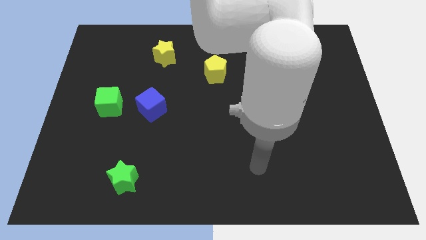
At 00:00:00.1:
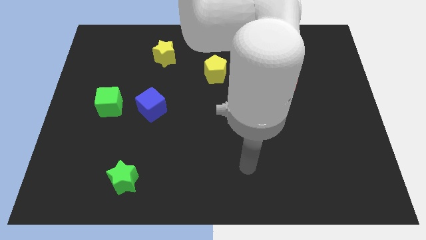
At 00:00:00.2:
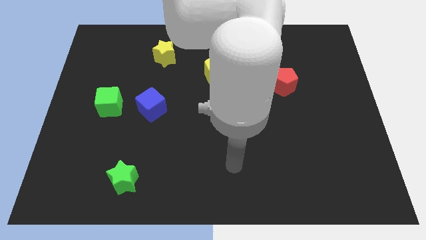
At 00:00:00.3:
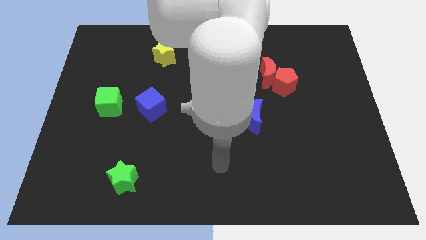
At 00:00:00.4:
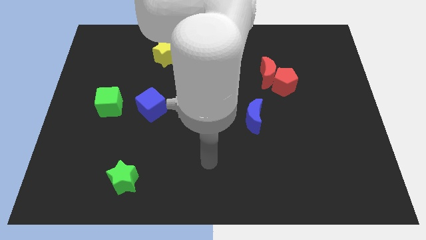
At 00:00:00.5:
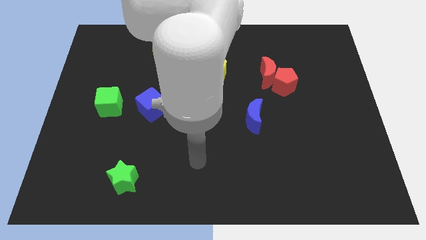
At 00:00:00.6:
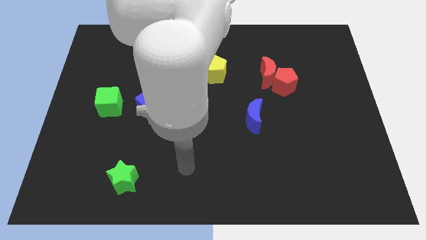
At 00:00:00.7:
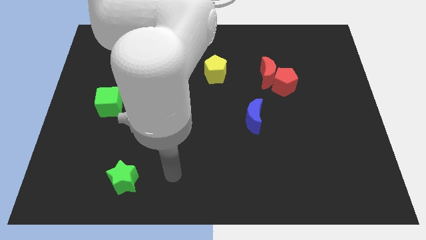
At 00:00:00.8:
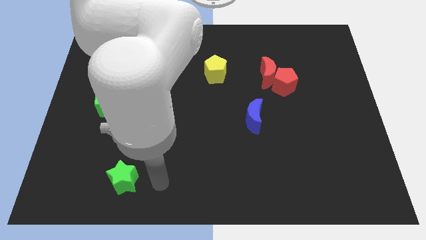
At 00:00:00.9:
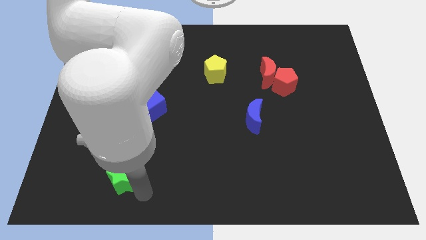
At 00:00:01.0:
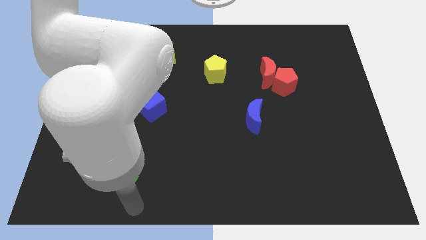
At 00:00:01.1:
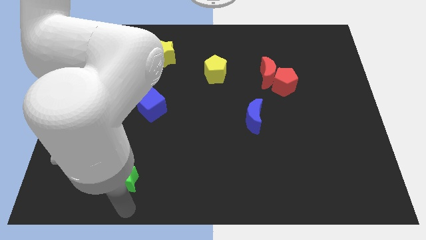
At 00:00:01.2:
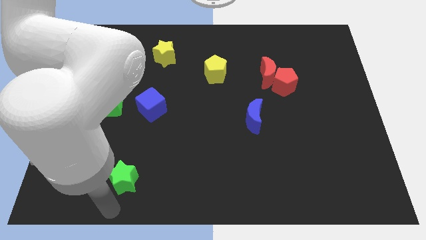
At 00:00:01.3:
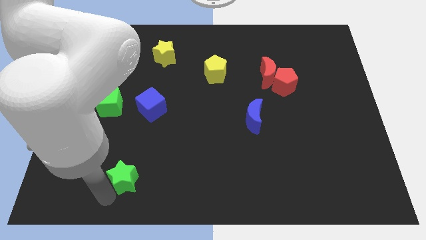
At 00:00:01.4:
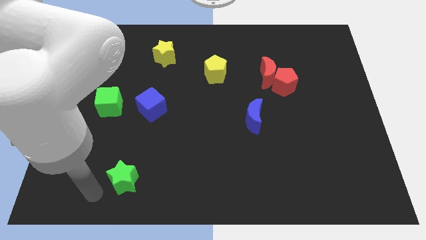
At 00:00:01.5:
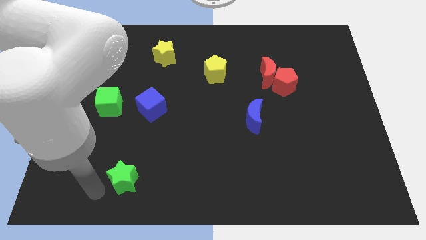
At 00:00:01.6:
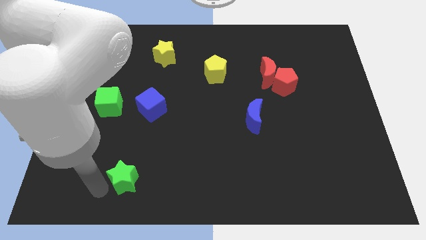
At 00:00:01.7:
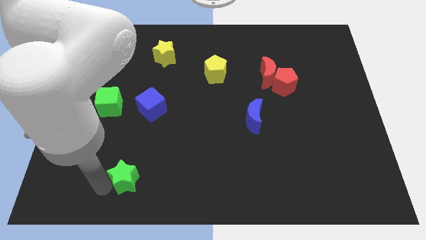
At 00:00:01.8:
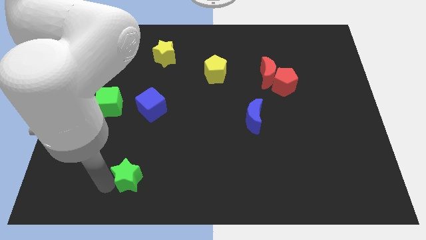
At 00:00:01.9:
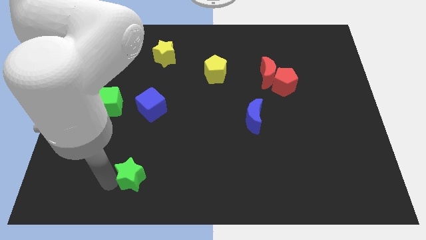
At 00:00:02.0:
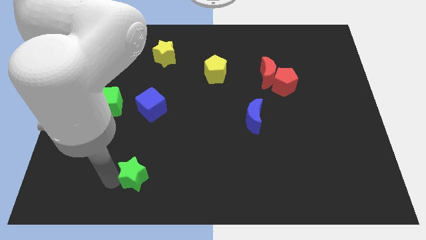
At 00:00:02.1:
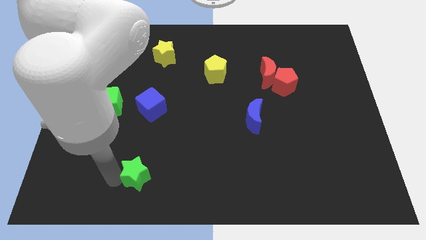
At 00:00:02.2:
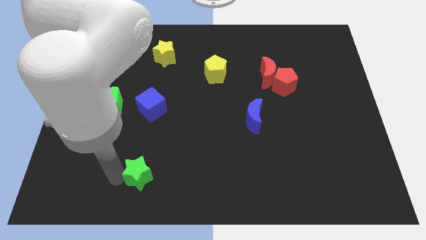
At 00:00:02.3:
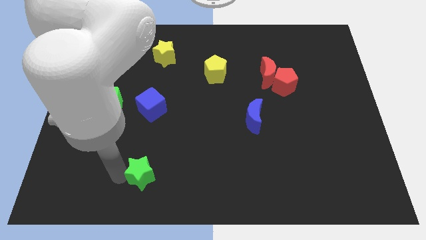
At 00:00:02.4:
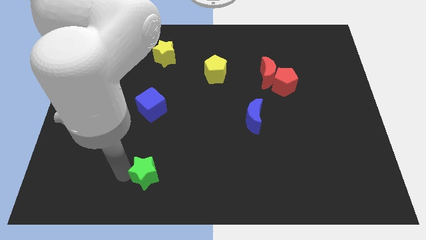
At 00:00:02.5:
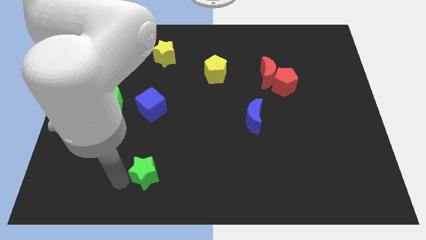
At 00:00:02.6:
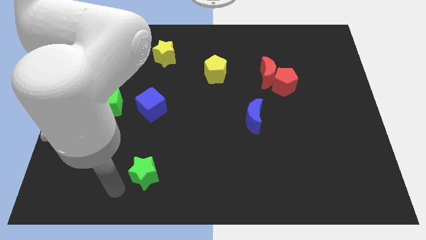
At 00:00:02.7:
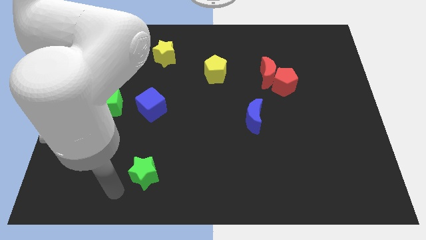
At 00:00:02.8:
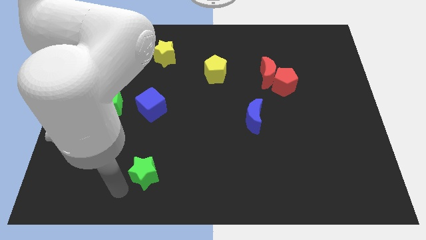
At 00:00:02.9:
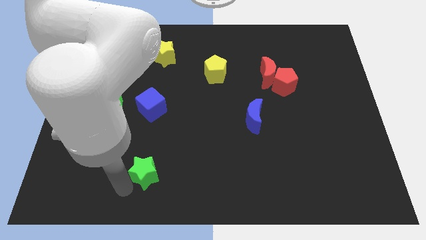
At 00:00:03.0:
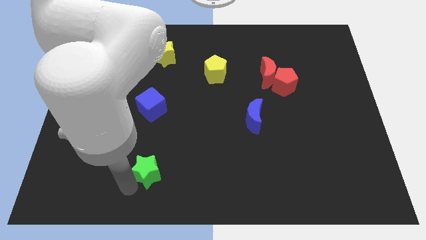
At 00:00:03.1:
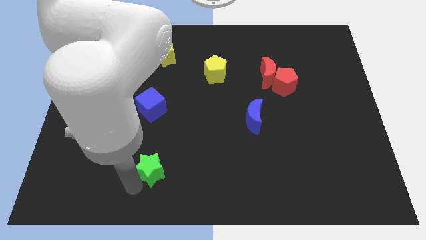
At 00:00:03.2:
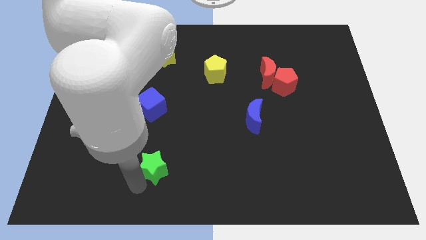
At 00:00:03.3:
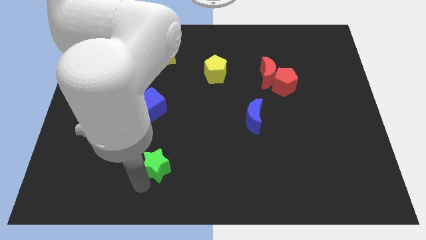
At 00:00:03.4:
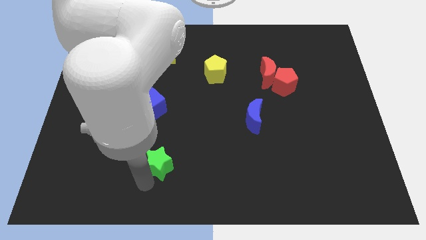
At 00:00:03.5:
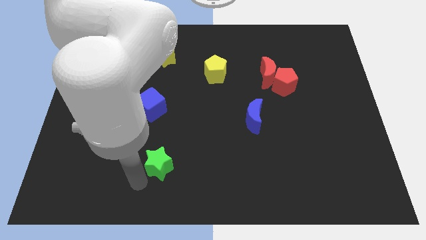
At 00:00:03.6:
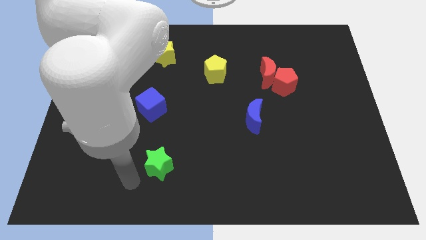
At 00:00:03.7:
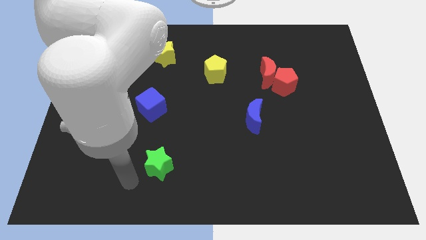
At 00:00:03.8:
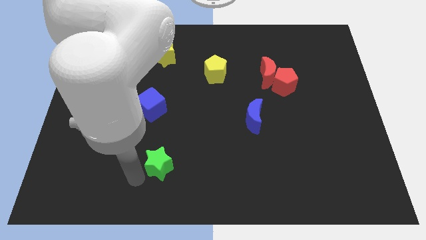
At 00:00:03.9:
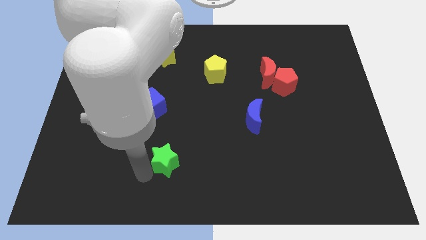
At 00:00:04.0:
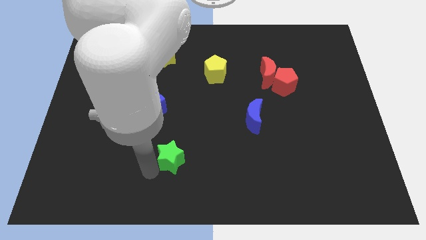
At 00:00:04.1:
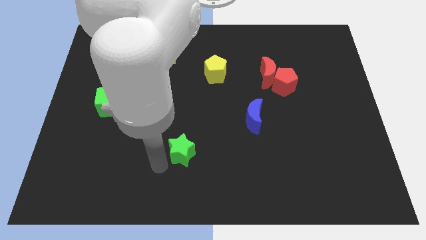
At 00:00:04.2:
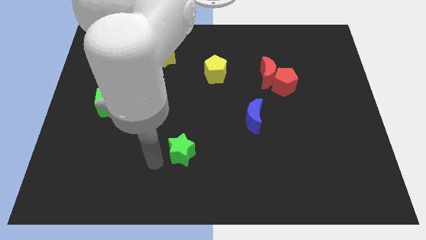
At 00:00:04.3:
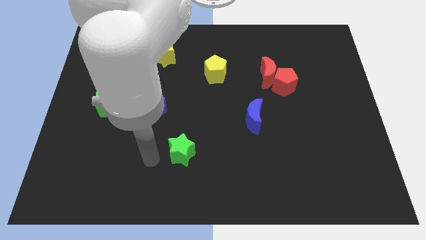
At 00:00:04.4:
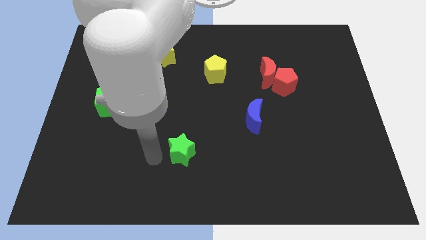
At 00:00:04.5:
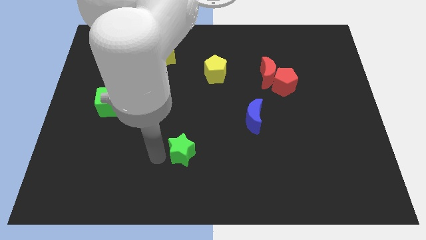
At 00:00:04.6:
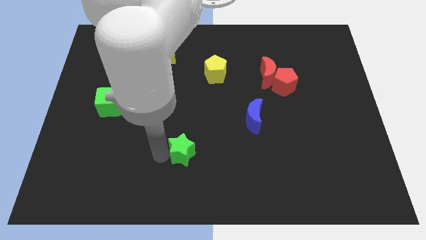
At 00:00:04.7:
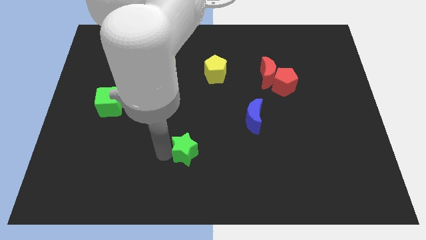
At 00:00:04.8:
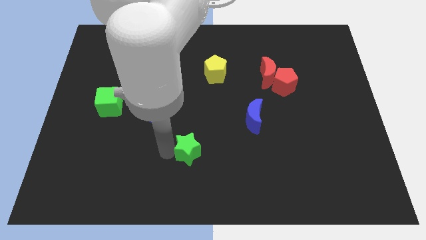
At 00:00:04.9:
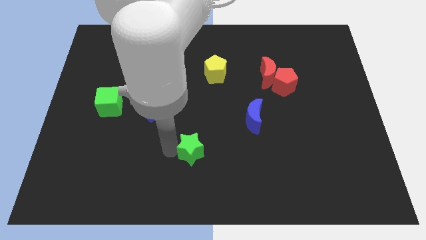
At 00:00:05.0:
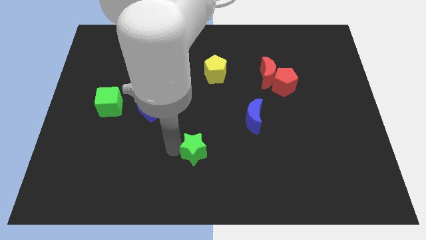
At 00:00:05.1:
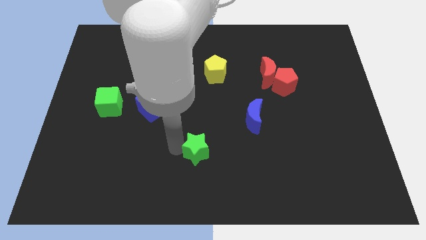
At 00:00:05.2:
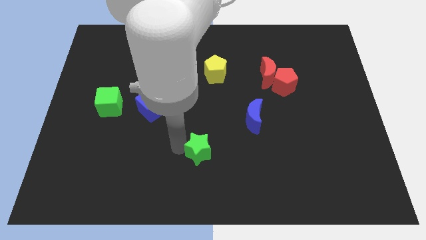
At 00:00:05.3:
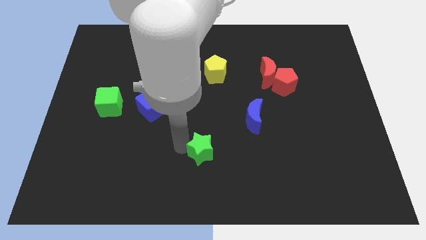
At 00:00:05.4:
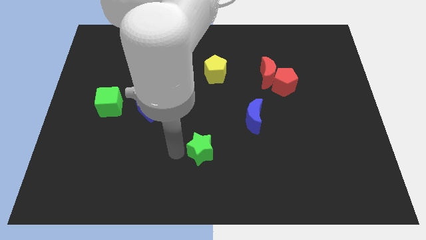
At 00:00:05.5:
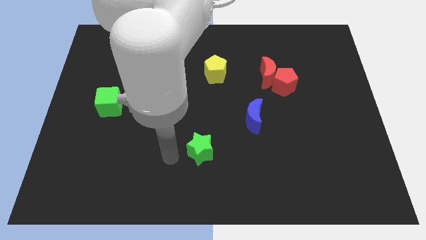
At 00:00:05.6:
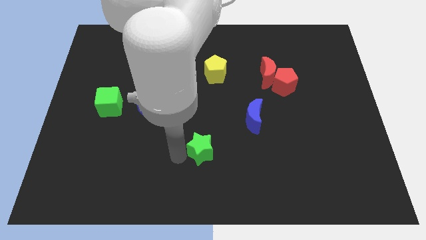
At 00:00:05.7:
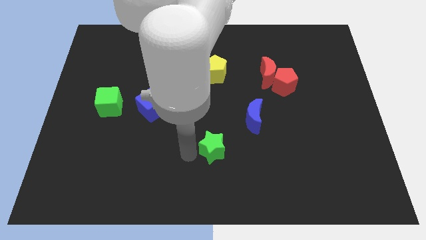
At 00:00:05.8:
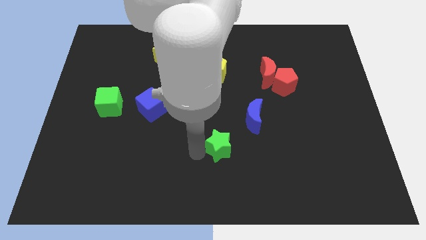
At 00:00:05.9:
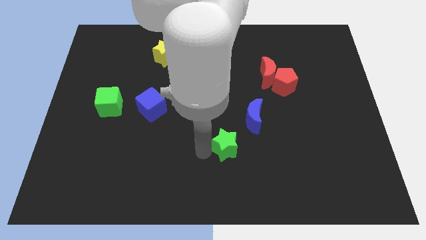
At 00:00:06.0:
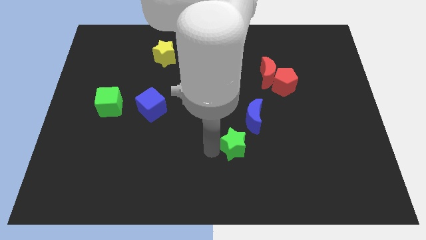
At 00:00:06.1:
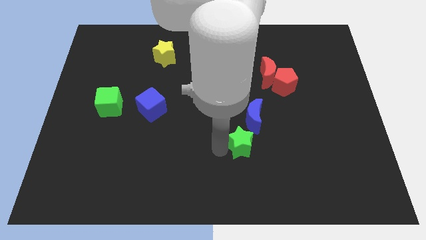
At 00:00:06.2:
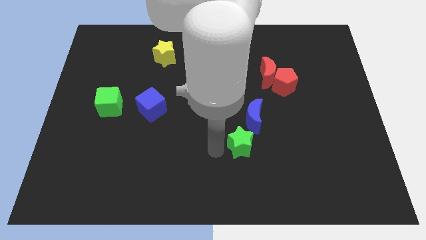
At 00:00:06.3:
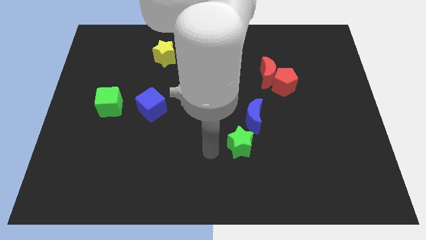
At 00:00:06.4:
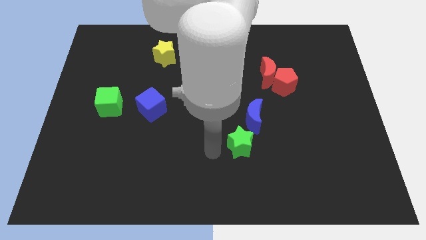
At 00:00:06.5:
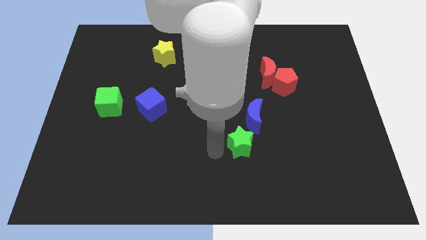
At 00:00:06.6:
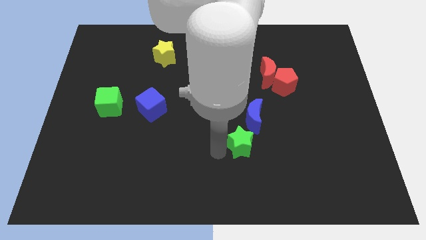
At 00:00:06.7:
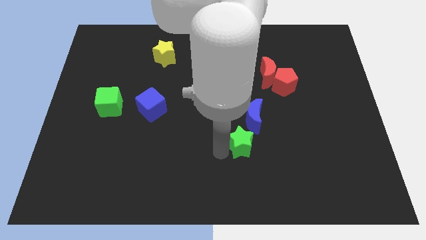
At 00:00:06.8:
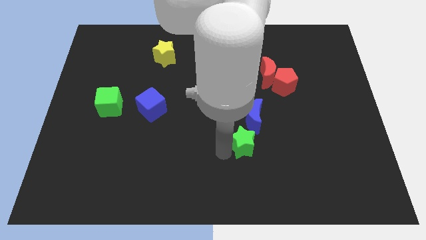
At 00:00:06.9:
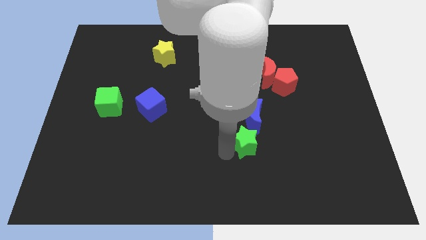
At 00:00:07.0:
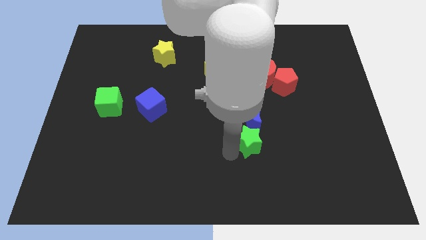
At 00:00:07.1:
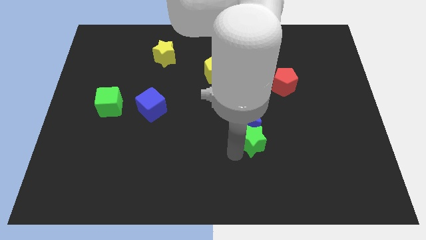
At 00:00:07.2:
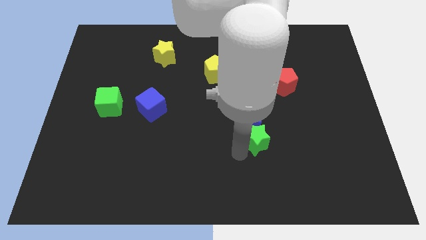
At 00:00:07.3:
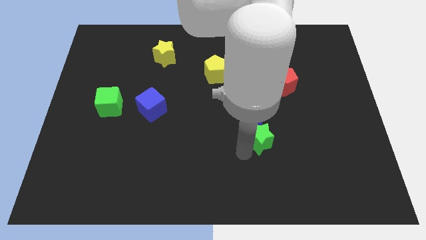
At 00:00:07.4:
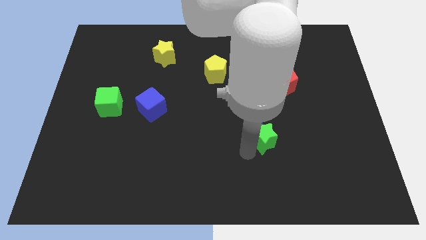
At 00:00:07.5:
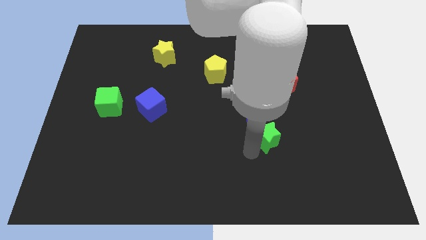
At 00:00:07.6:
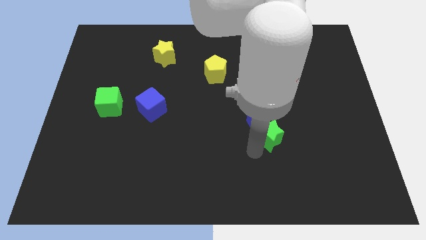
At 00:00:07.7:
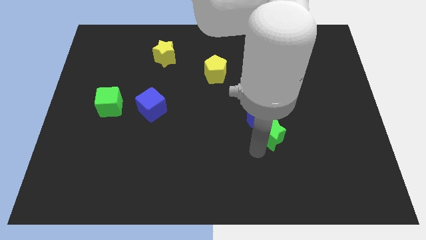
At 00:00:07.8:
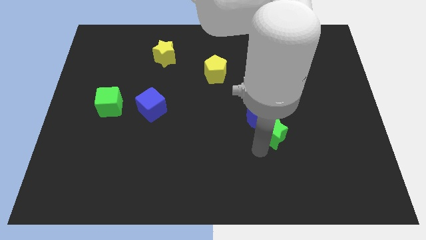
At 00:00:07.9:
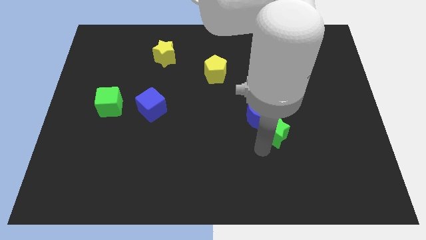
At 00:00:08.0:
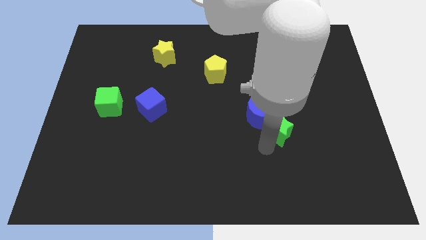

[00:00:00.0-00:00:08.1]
slide the green star to the right side of the blue moon
